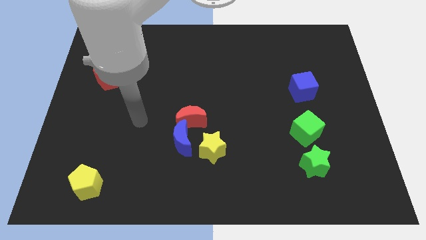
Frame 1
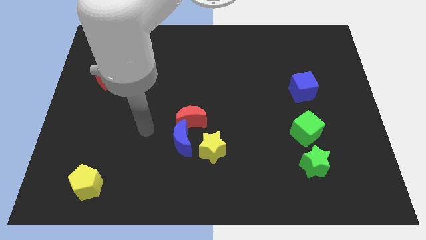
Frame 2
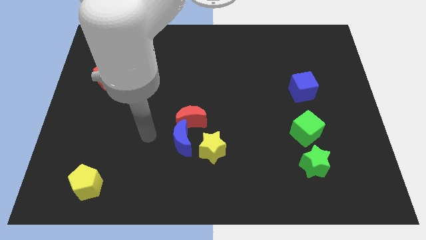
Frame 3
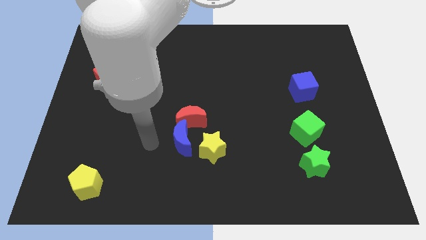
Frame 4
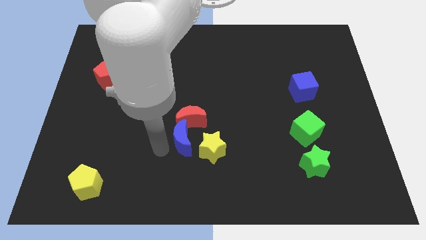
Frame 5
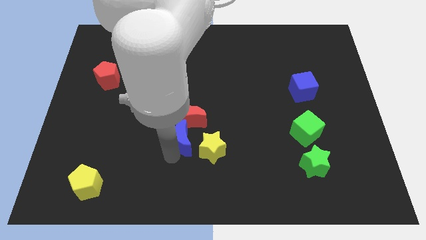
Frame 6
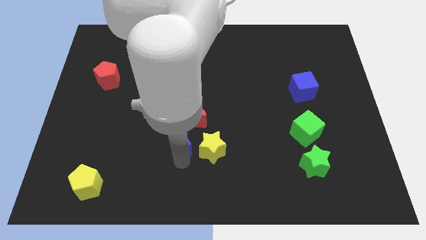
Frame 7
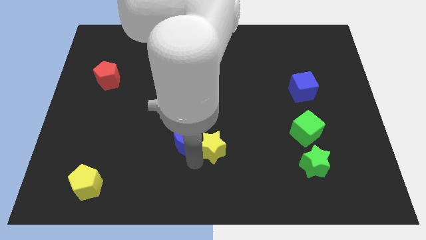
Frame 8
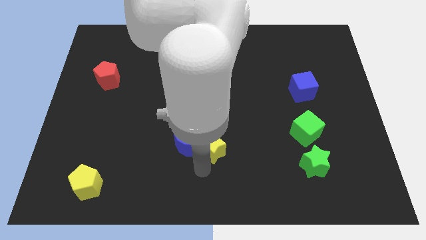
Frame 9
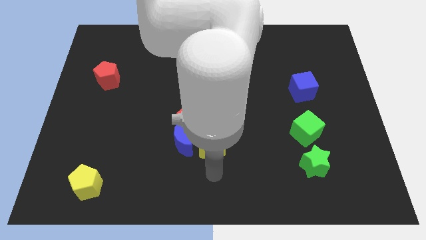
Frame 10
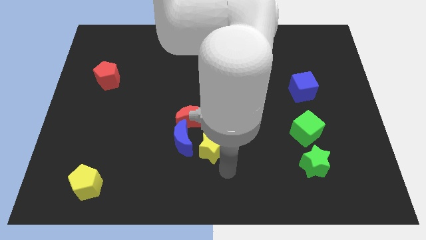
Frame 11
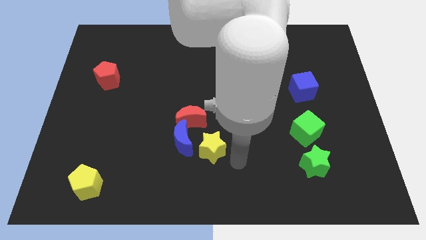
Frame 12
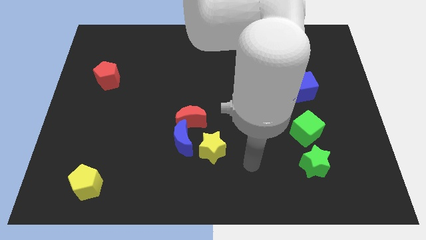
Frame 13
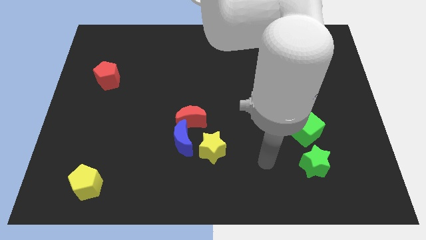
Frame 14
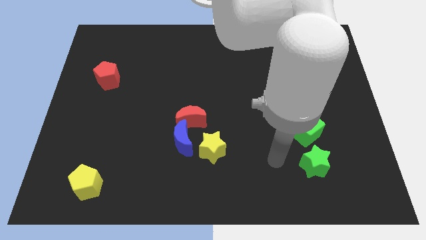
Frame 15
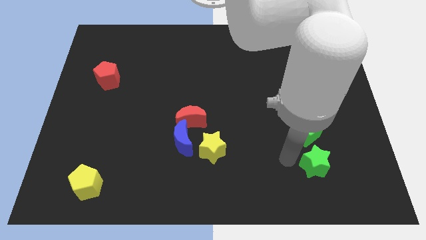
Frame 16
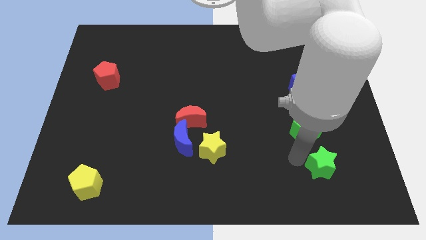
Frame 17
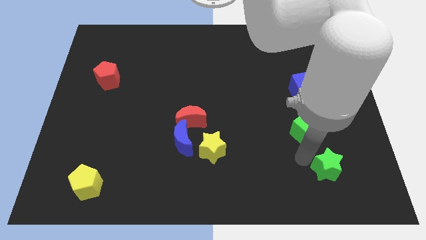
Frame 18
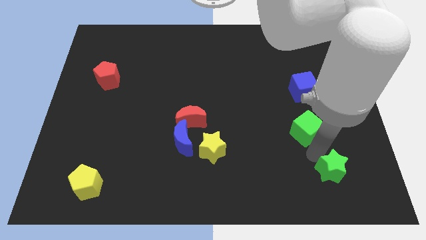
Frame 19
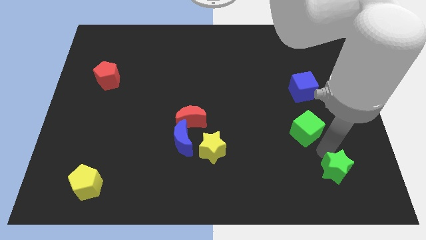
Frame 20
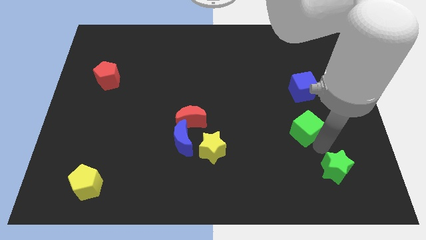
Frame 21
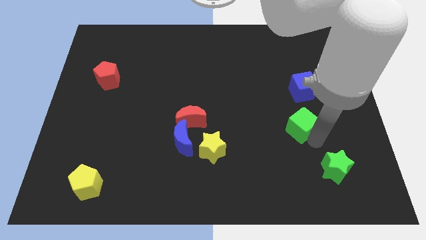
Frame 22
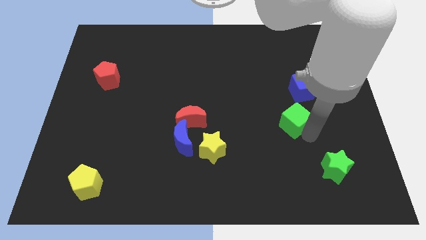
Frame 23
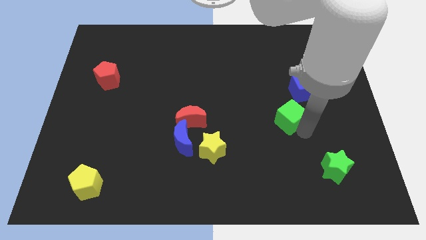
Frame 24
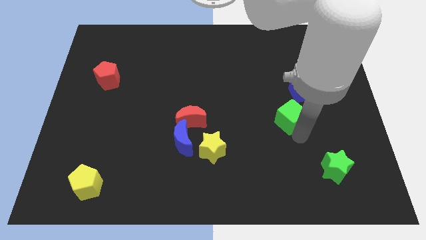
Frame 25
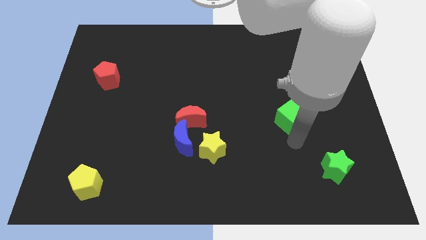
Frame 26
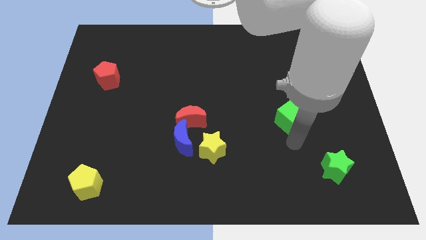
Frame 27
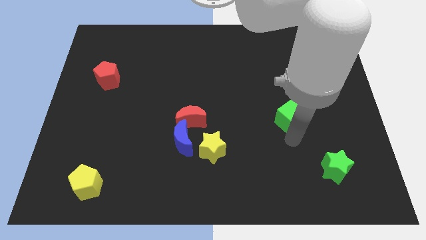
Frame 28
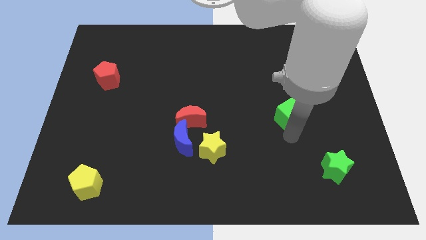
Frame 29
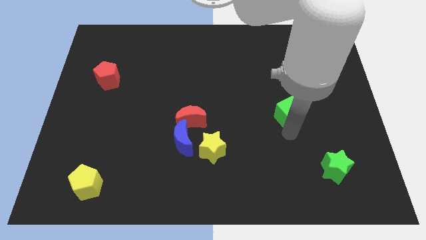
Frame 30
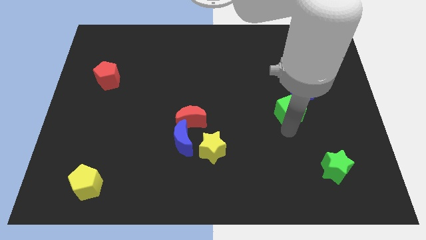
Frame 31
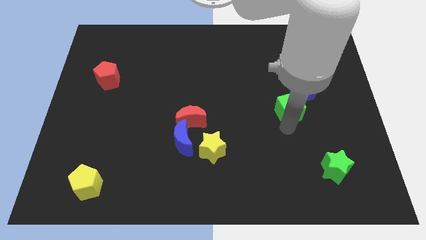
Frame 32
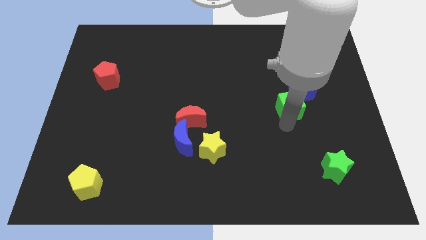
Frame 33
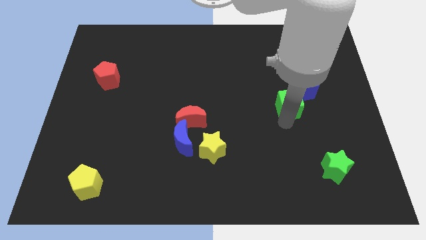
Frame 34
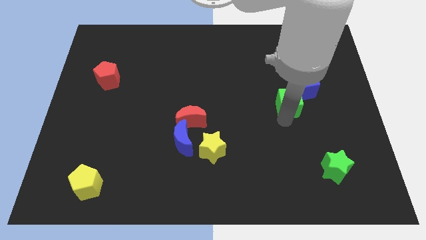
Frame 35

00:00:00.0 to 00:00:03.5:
slightly slide the green cube upwards

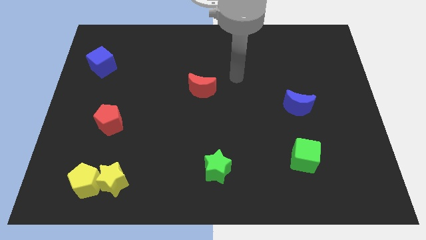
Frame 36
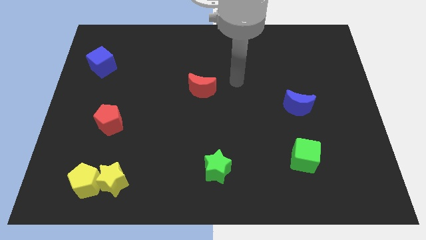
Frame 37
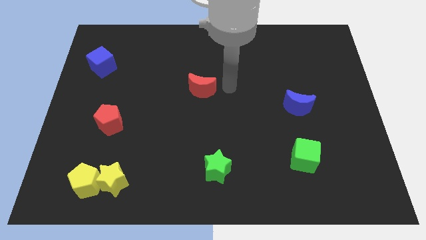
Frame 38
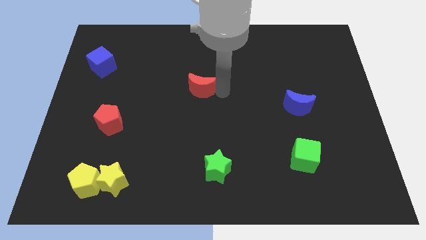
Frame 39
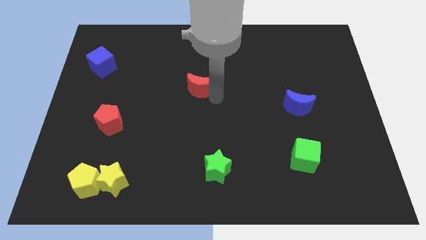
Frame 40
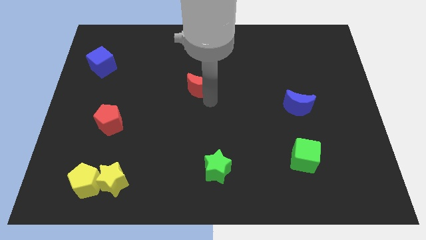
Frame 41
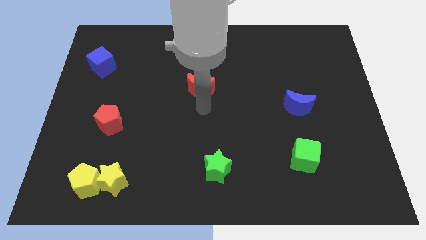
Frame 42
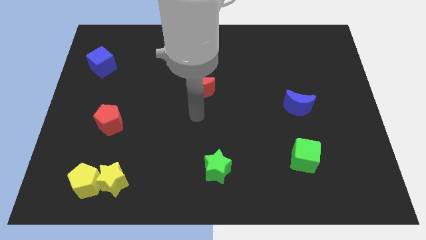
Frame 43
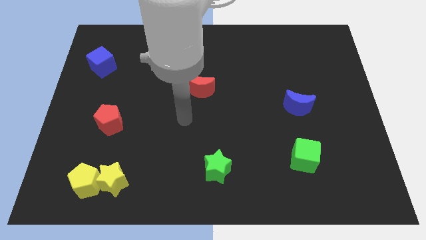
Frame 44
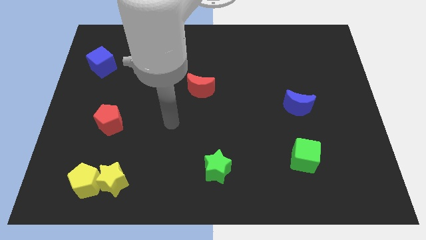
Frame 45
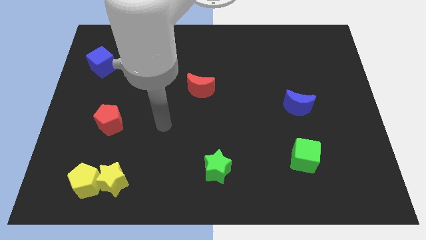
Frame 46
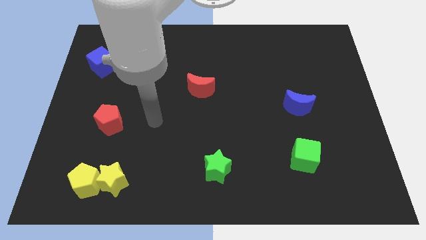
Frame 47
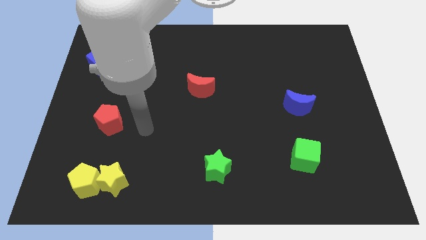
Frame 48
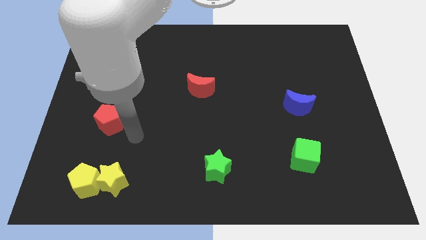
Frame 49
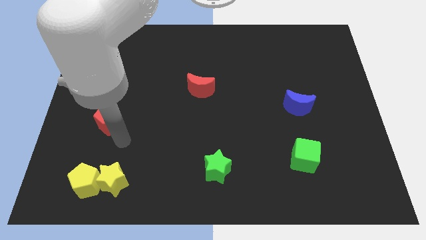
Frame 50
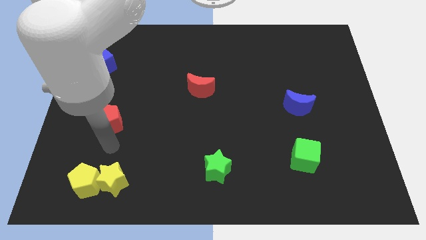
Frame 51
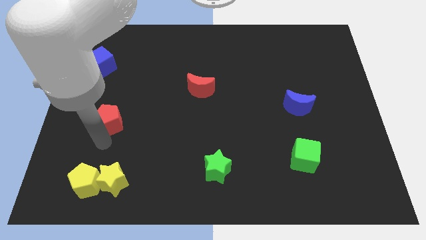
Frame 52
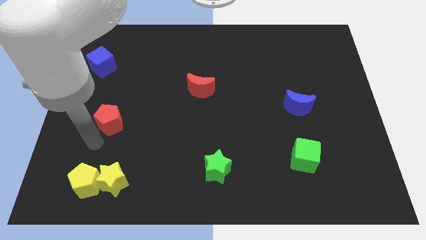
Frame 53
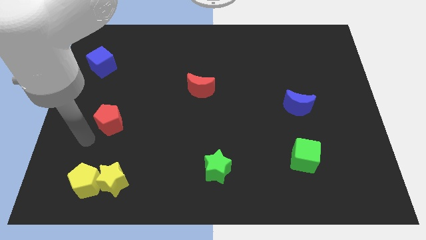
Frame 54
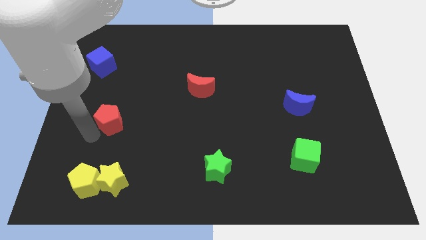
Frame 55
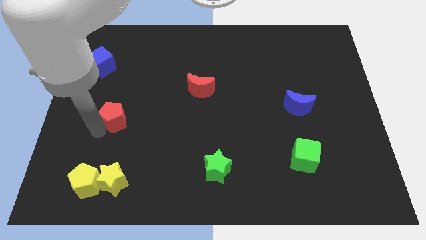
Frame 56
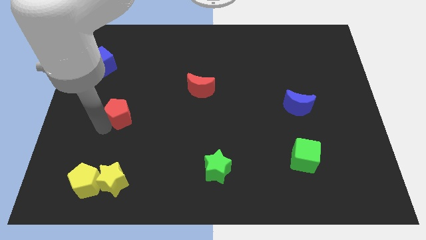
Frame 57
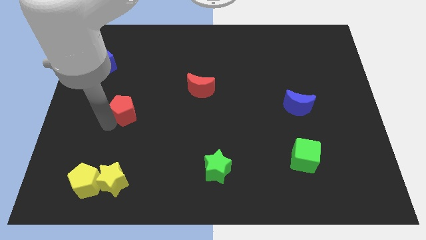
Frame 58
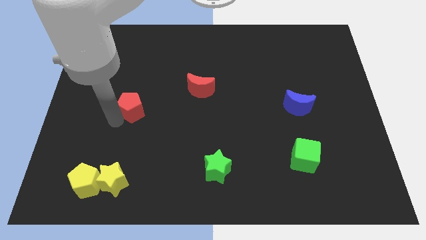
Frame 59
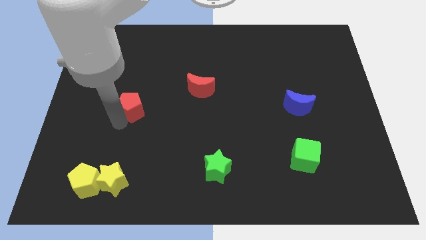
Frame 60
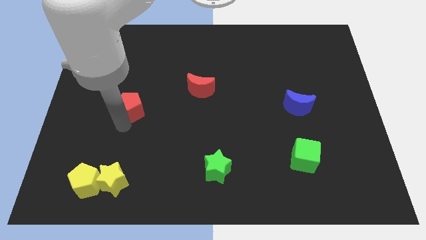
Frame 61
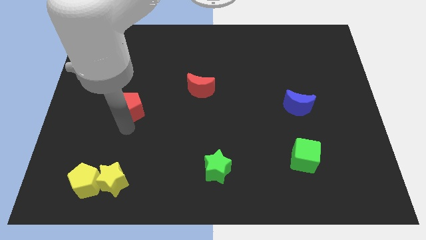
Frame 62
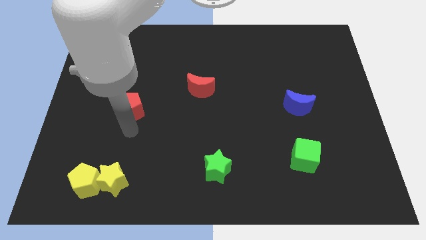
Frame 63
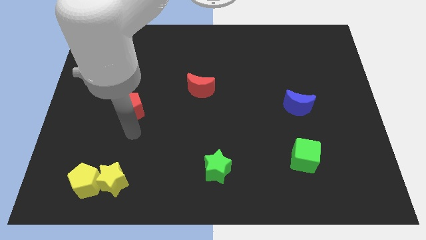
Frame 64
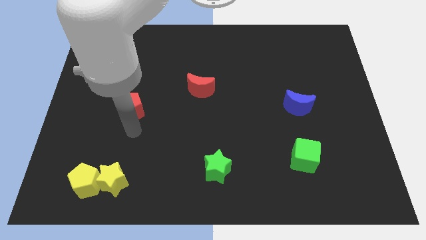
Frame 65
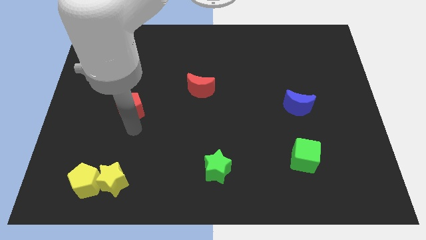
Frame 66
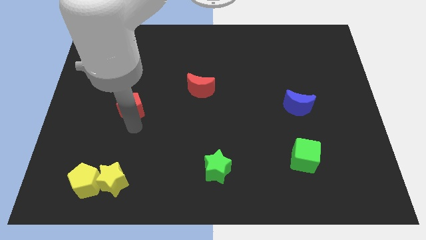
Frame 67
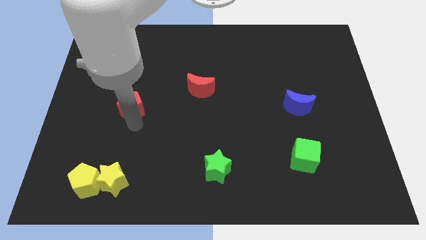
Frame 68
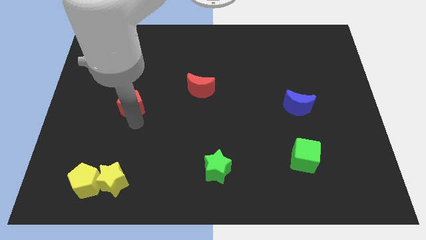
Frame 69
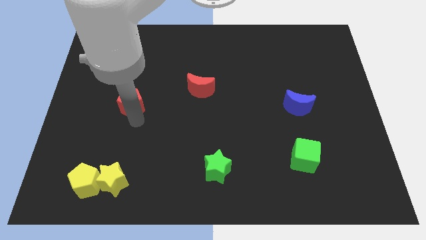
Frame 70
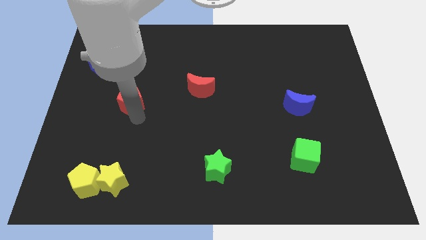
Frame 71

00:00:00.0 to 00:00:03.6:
push the red pentagon a little bit upwards and right

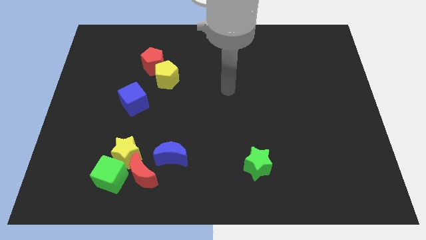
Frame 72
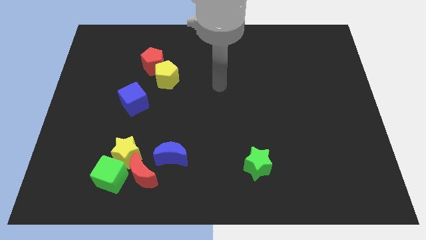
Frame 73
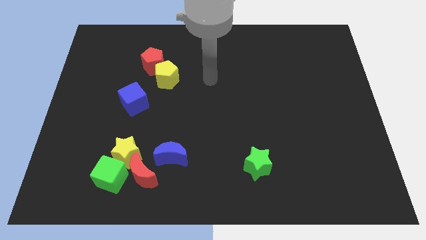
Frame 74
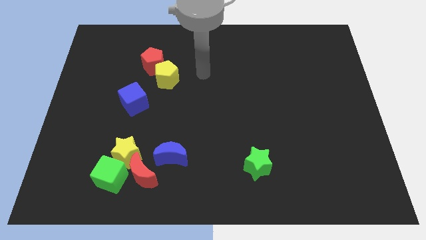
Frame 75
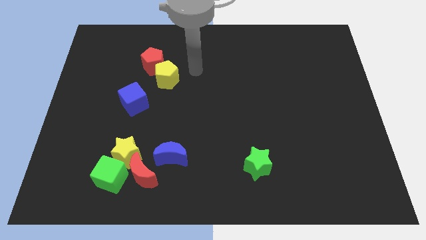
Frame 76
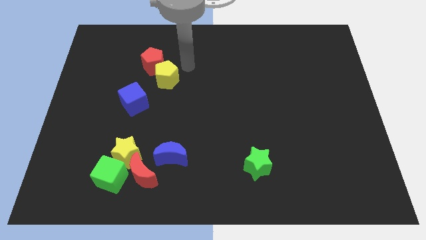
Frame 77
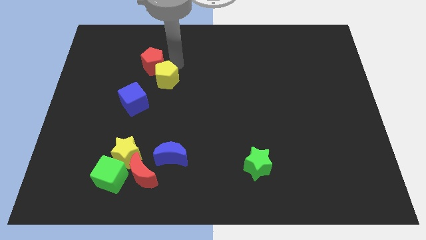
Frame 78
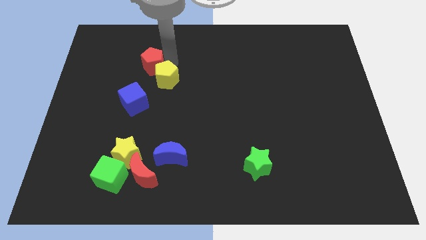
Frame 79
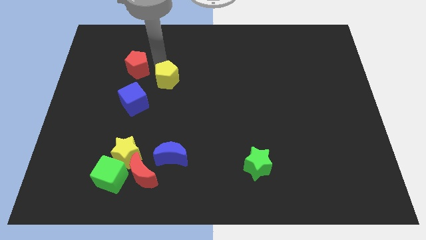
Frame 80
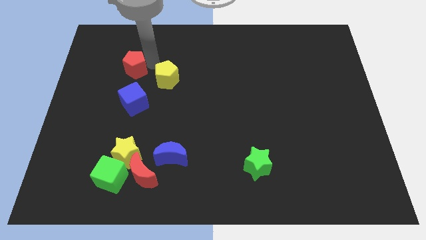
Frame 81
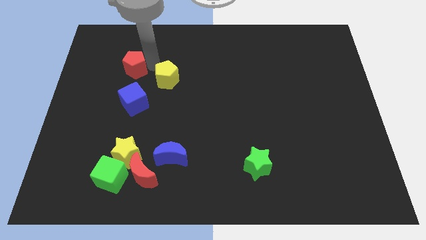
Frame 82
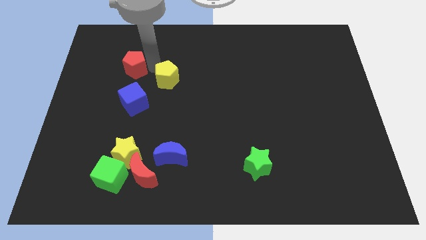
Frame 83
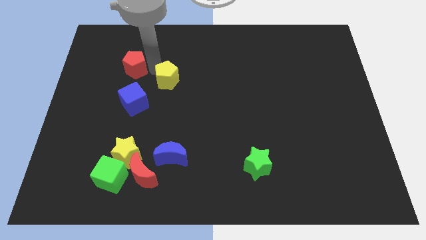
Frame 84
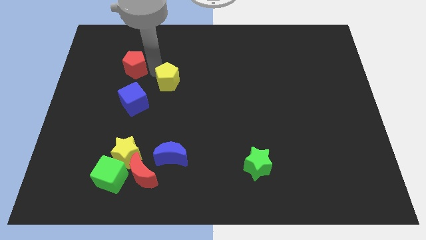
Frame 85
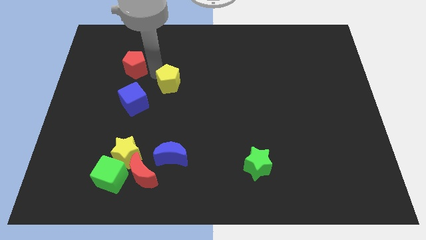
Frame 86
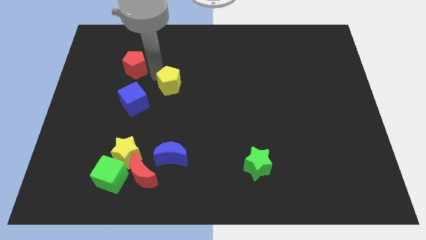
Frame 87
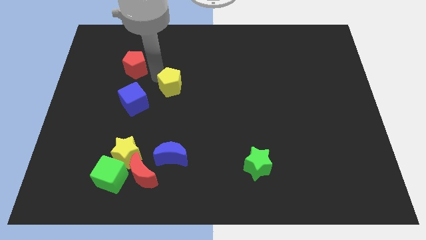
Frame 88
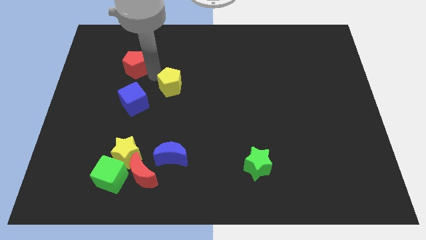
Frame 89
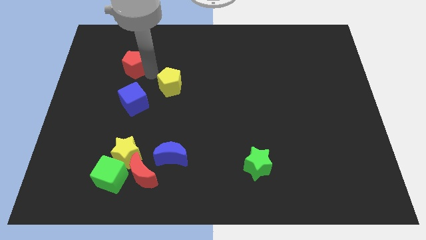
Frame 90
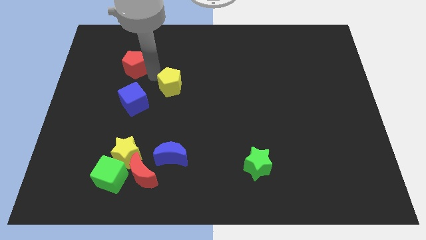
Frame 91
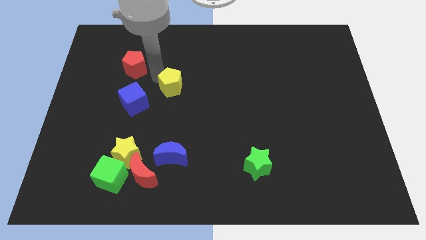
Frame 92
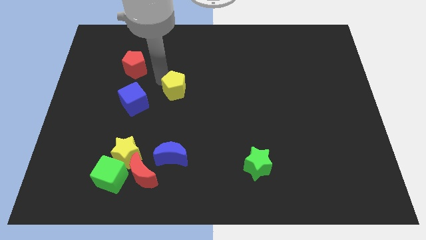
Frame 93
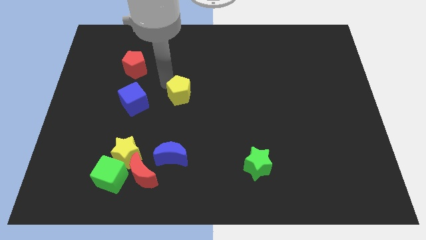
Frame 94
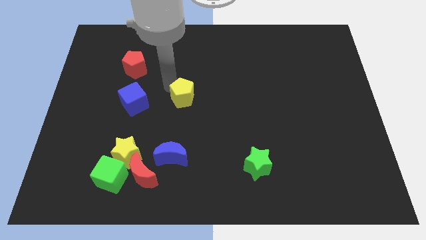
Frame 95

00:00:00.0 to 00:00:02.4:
move the yellow pentagon a little bit diagonally down and to the right
